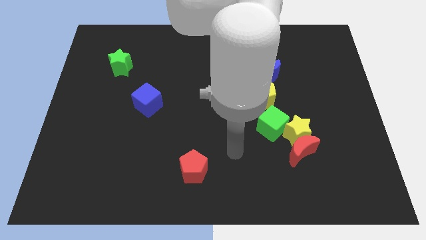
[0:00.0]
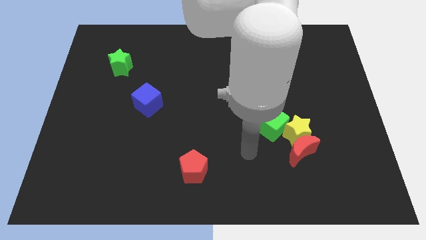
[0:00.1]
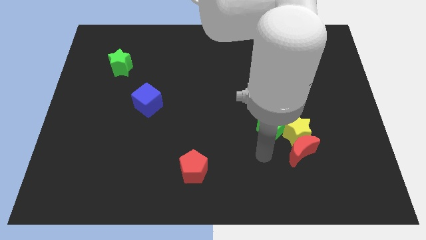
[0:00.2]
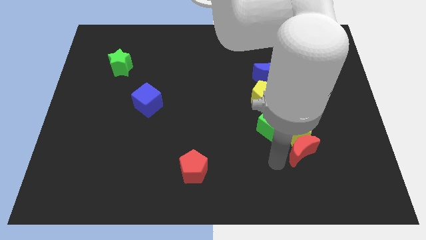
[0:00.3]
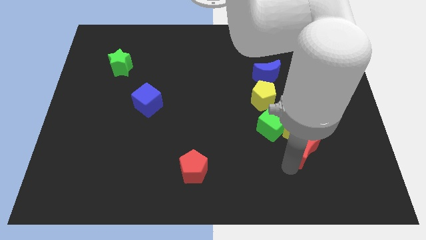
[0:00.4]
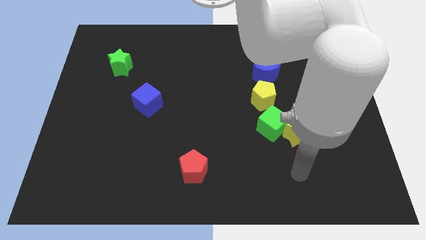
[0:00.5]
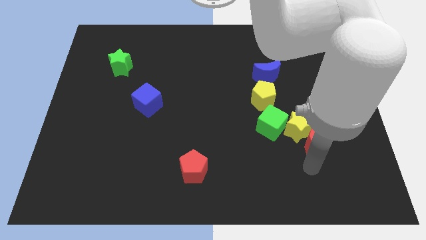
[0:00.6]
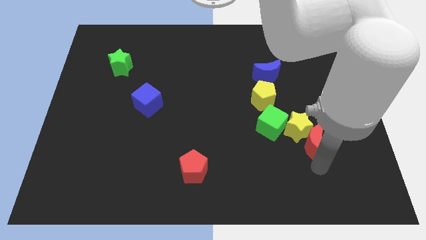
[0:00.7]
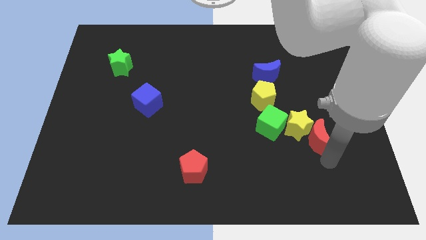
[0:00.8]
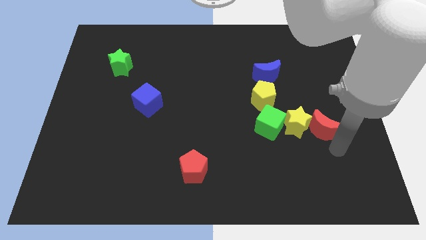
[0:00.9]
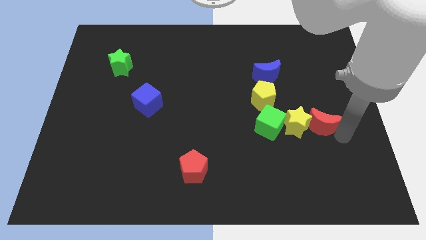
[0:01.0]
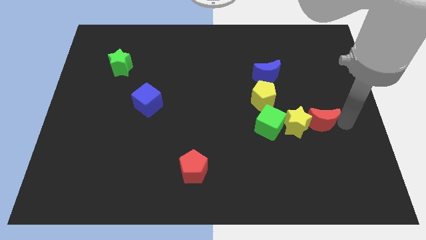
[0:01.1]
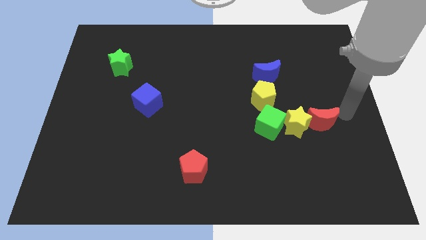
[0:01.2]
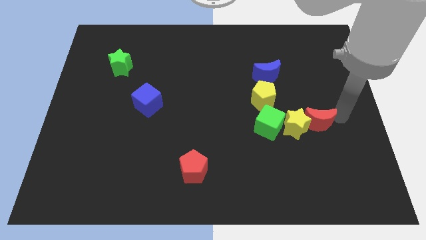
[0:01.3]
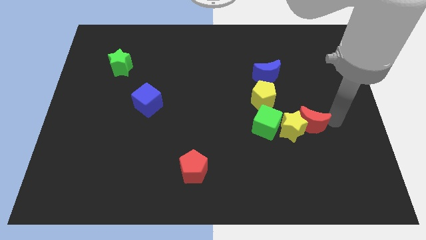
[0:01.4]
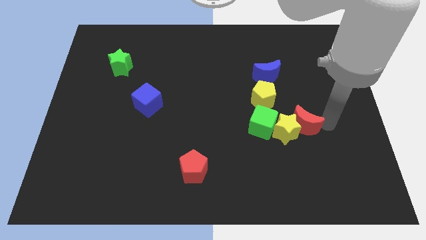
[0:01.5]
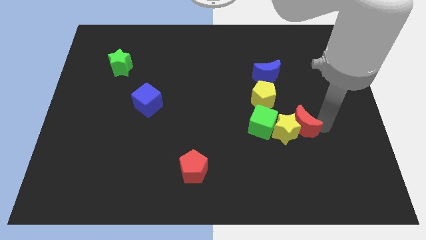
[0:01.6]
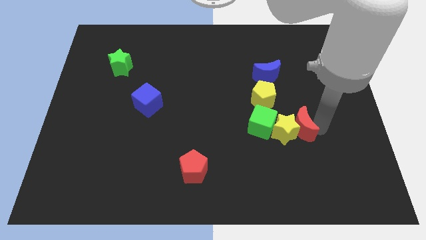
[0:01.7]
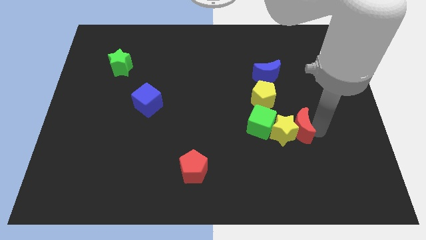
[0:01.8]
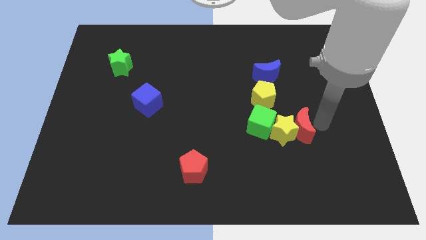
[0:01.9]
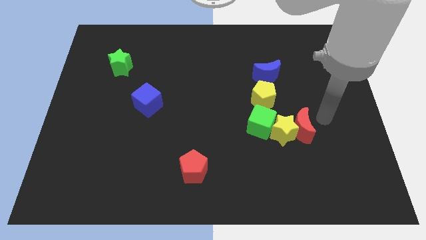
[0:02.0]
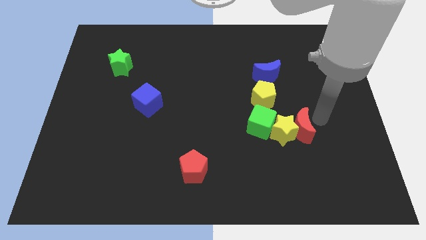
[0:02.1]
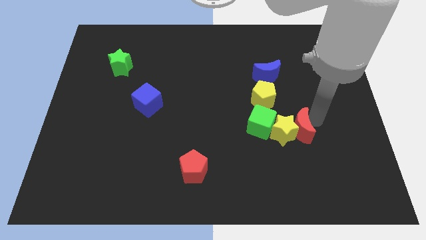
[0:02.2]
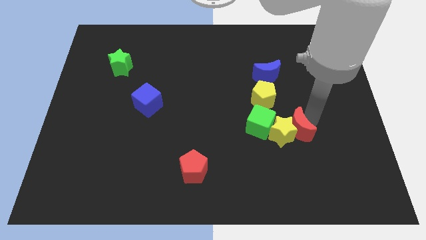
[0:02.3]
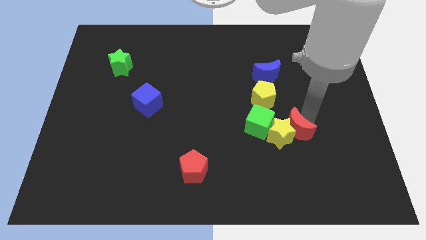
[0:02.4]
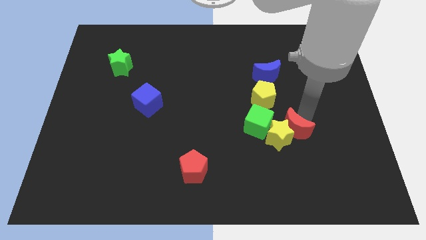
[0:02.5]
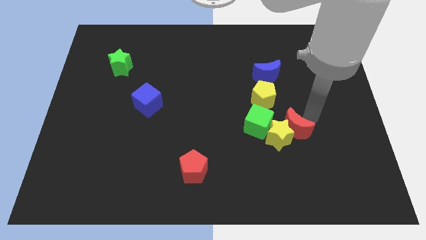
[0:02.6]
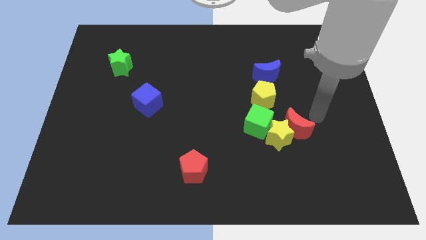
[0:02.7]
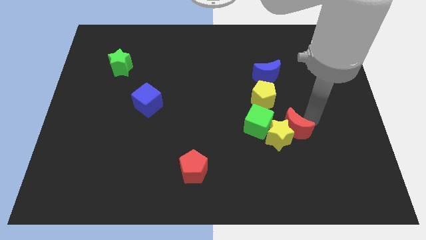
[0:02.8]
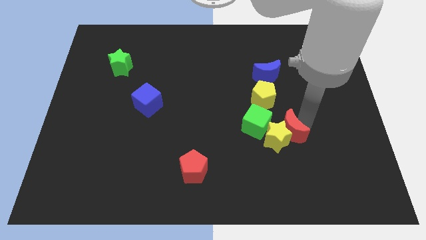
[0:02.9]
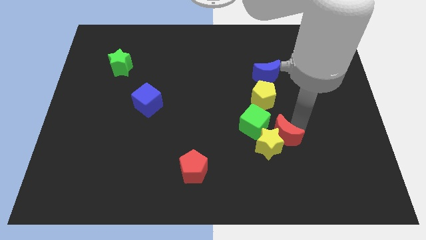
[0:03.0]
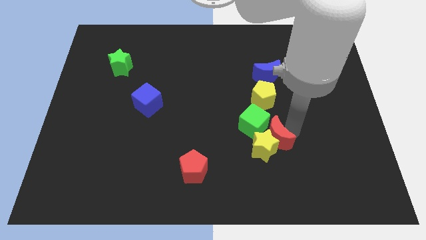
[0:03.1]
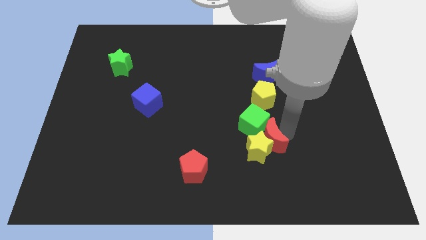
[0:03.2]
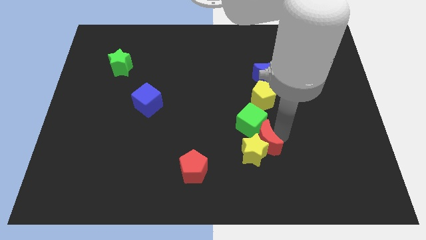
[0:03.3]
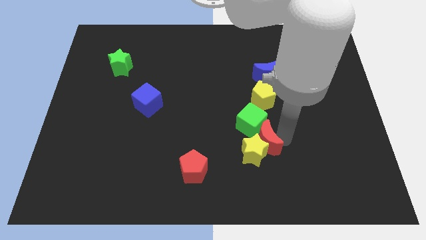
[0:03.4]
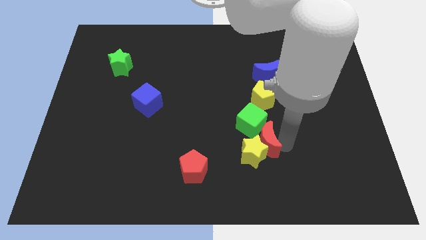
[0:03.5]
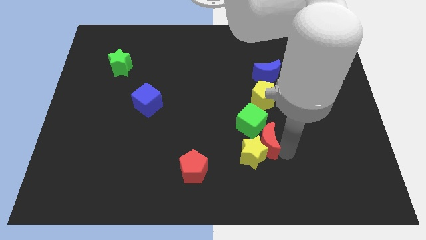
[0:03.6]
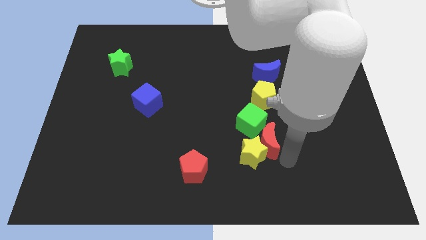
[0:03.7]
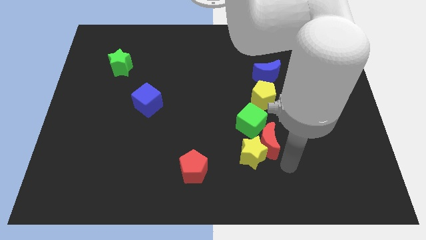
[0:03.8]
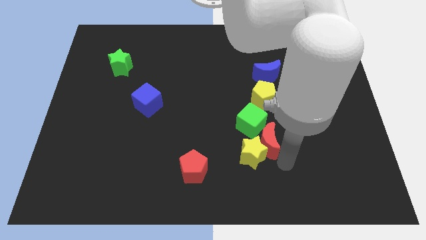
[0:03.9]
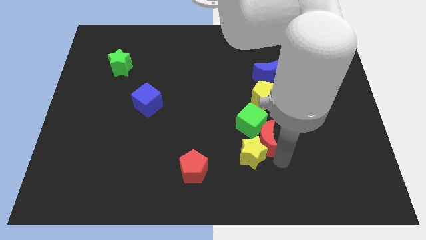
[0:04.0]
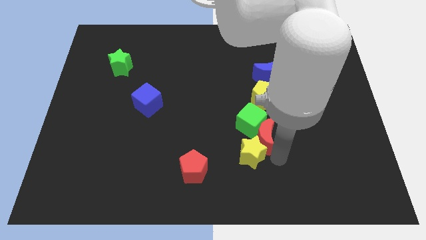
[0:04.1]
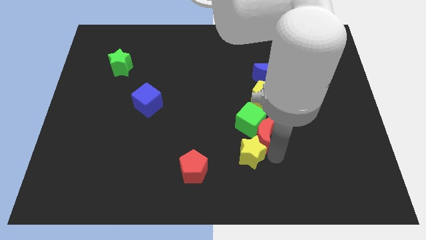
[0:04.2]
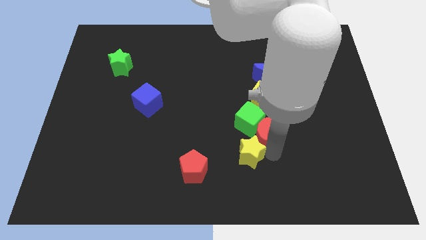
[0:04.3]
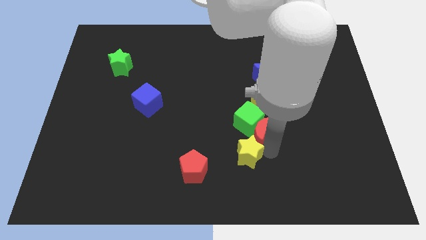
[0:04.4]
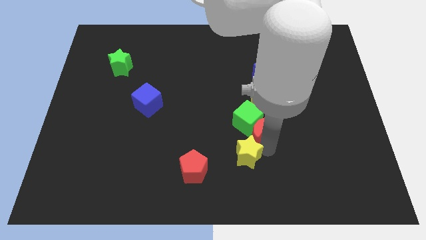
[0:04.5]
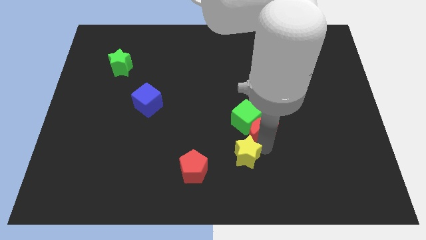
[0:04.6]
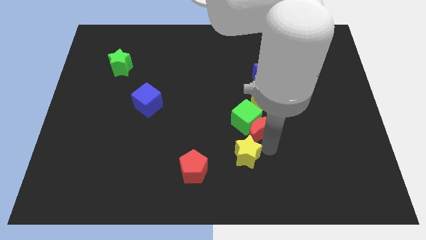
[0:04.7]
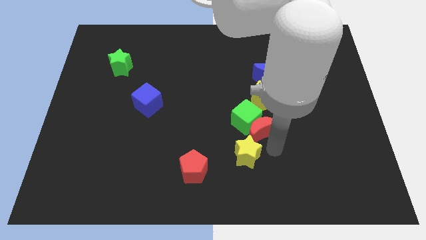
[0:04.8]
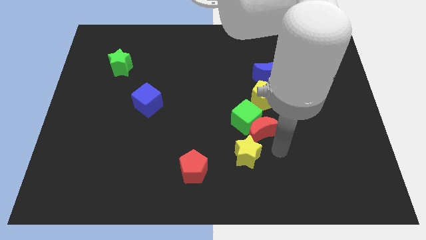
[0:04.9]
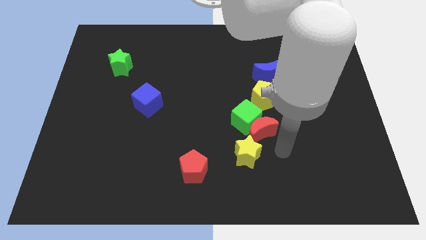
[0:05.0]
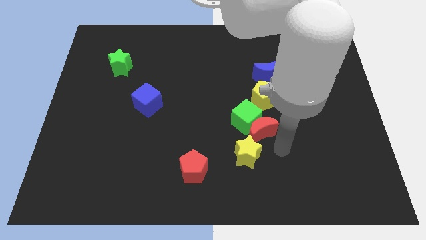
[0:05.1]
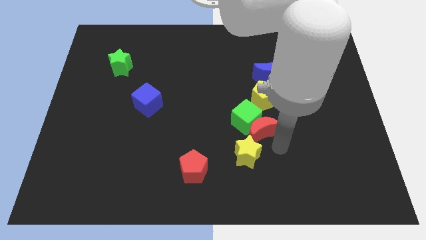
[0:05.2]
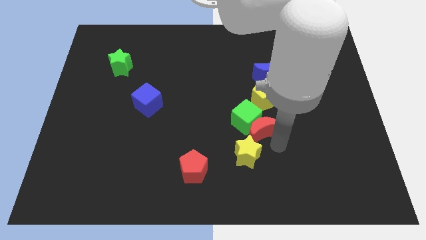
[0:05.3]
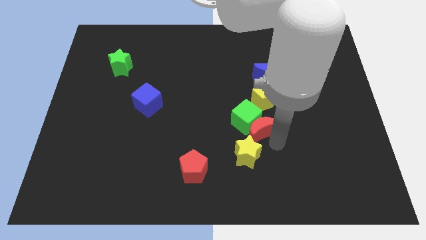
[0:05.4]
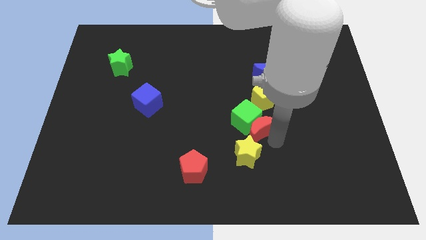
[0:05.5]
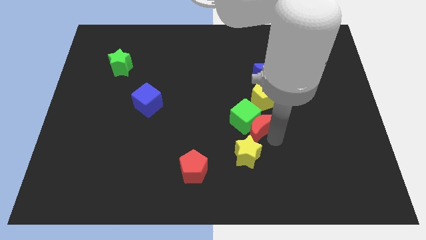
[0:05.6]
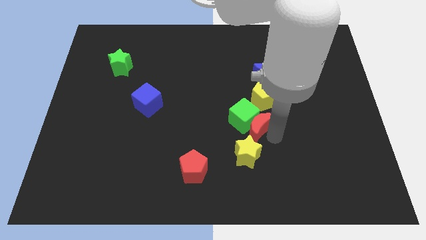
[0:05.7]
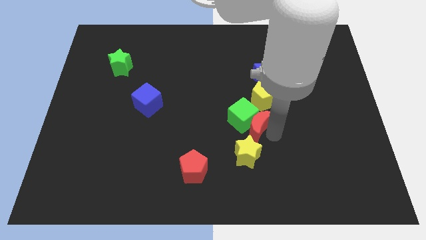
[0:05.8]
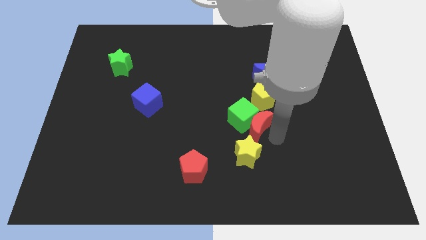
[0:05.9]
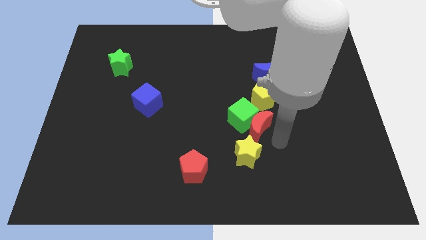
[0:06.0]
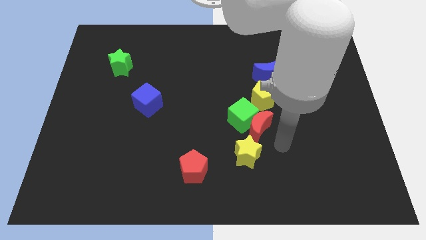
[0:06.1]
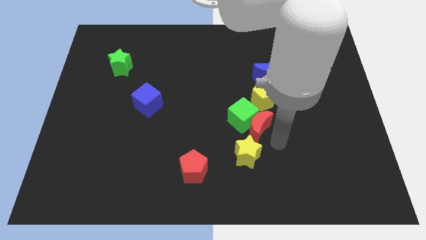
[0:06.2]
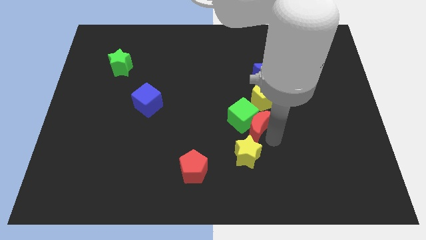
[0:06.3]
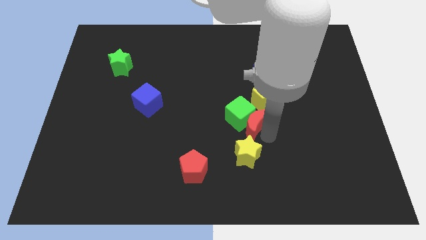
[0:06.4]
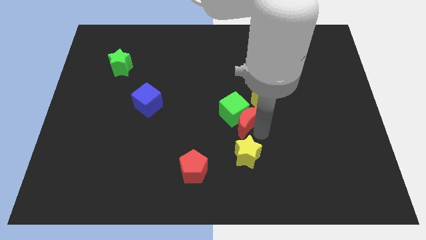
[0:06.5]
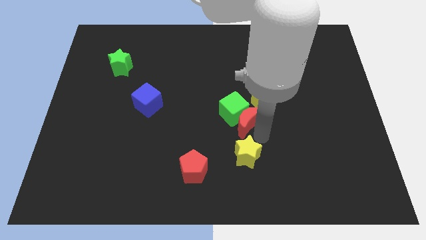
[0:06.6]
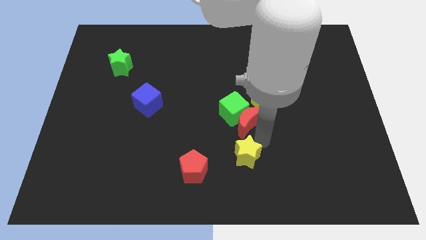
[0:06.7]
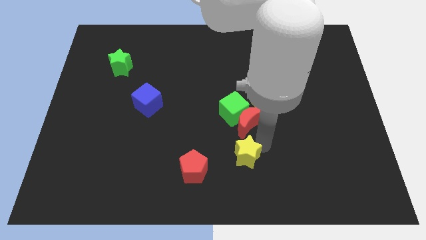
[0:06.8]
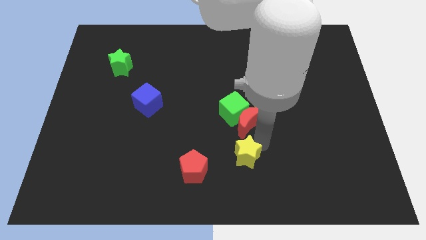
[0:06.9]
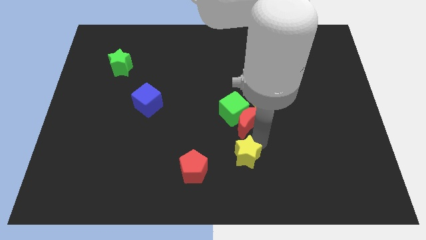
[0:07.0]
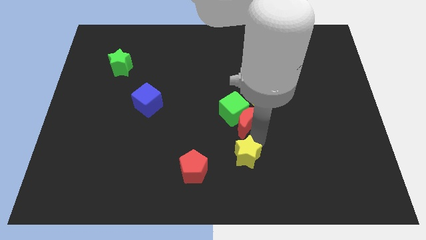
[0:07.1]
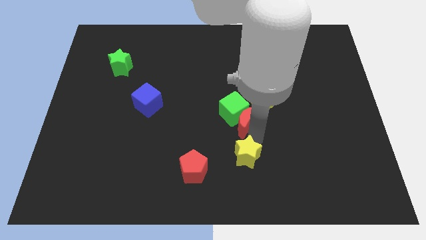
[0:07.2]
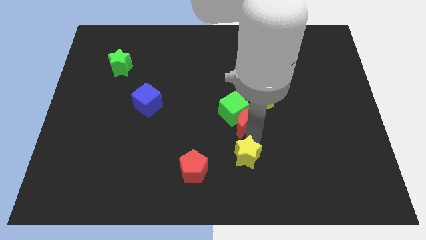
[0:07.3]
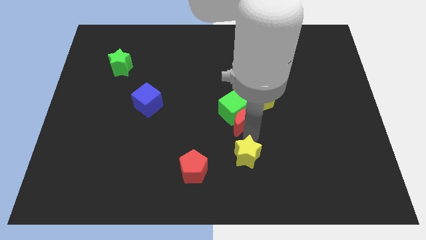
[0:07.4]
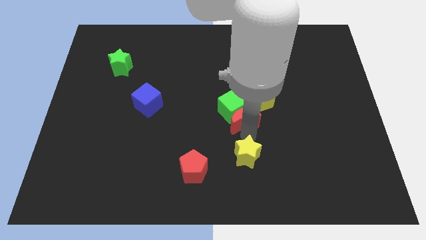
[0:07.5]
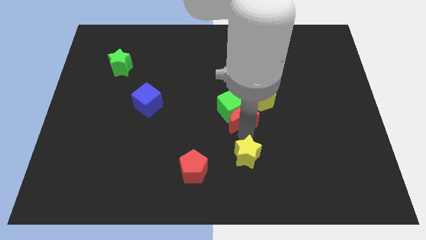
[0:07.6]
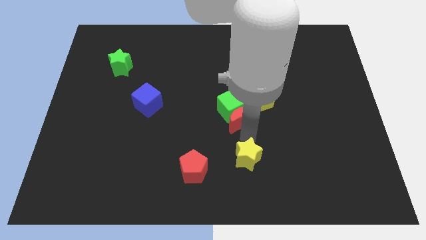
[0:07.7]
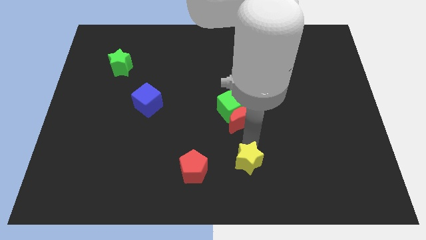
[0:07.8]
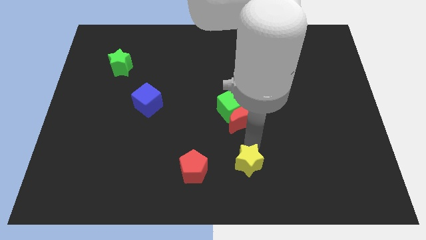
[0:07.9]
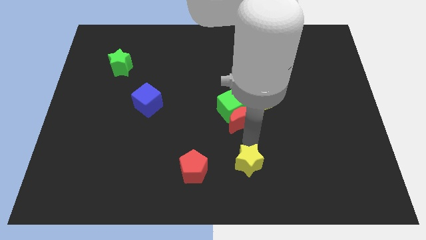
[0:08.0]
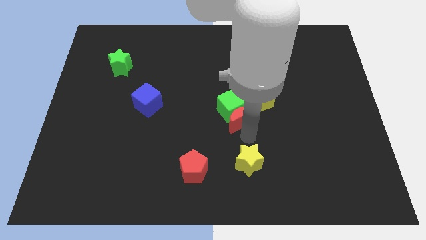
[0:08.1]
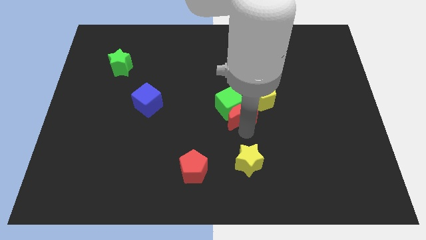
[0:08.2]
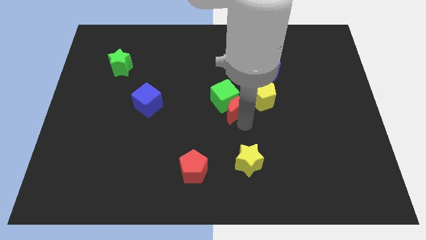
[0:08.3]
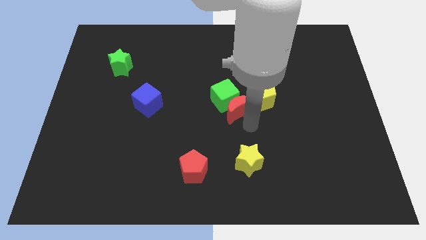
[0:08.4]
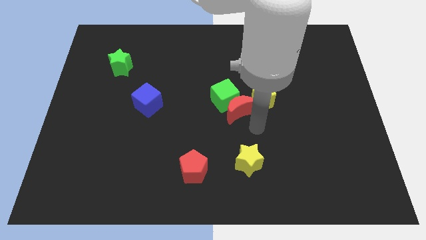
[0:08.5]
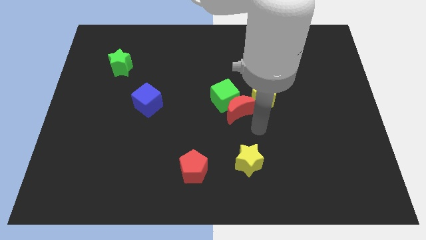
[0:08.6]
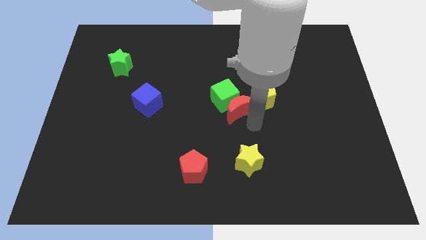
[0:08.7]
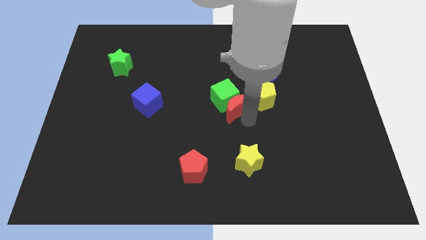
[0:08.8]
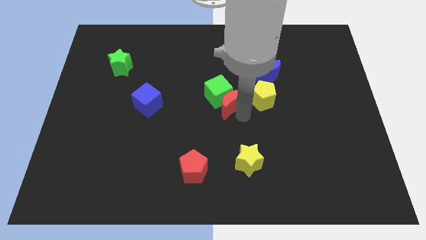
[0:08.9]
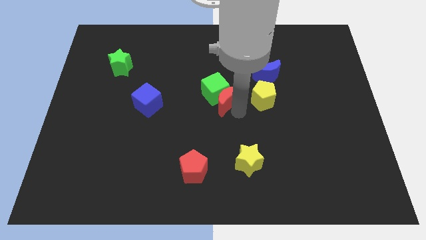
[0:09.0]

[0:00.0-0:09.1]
slide the red moon upwards and to the left
